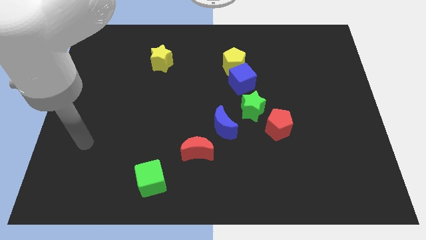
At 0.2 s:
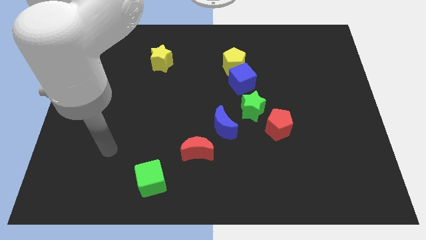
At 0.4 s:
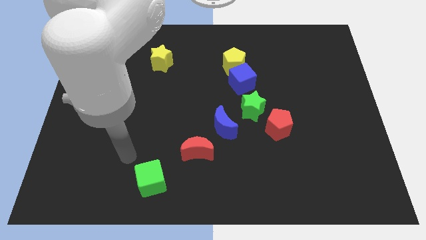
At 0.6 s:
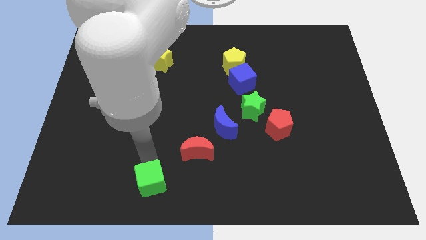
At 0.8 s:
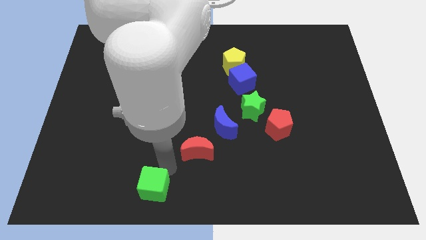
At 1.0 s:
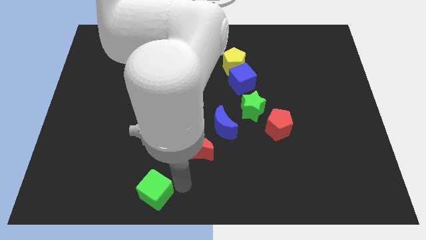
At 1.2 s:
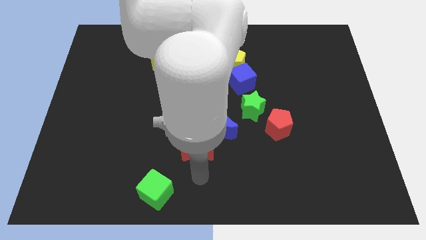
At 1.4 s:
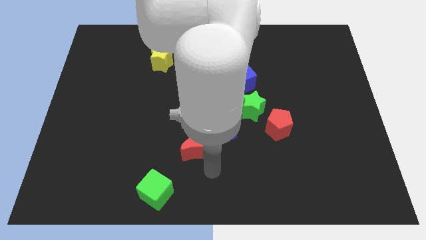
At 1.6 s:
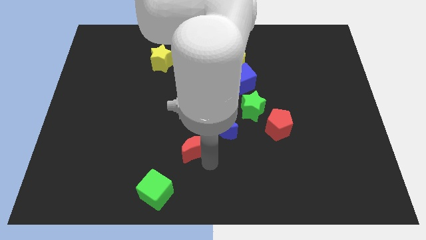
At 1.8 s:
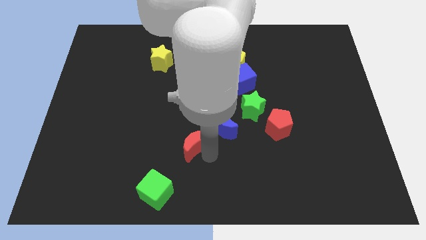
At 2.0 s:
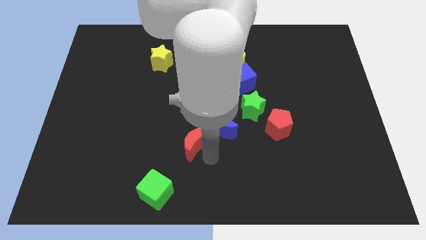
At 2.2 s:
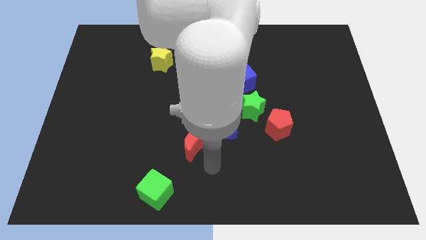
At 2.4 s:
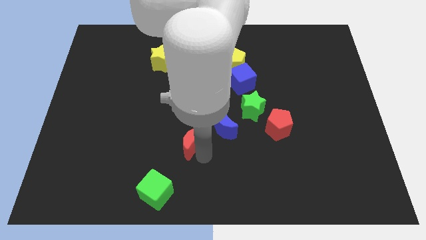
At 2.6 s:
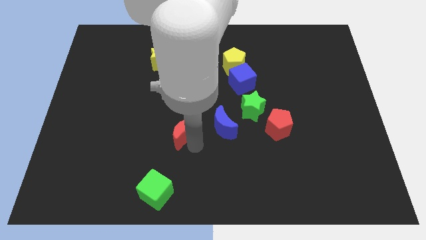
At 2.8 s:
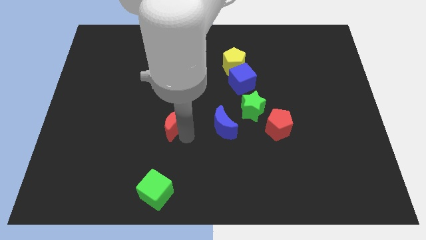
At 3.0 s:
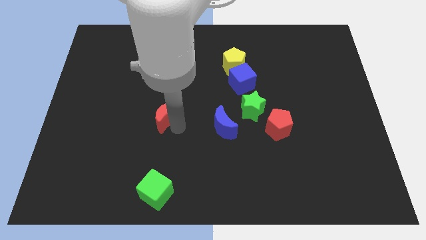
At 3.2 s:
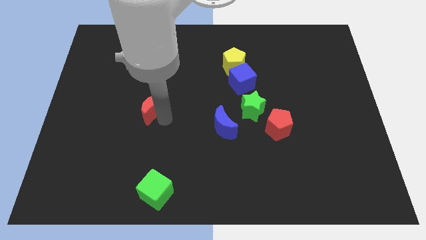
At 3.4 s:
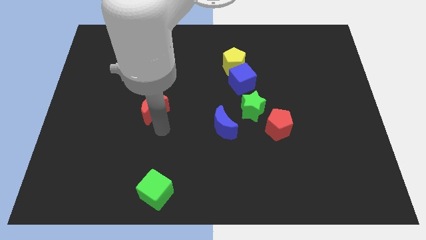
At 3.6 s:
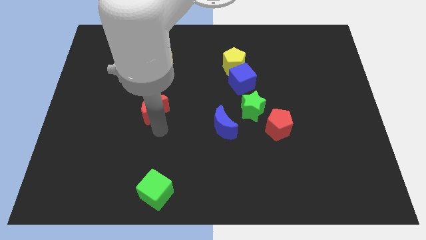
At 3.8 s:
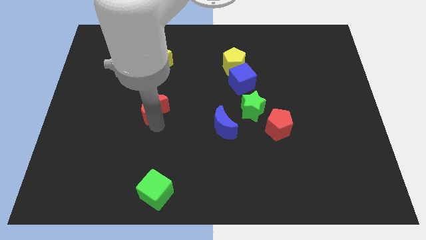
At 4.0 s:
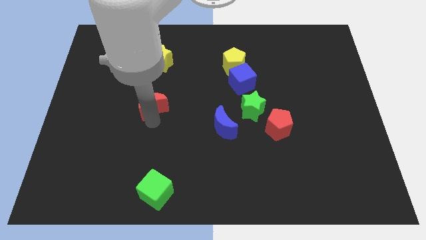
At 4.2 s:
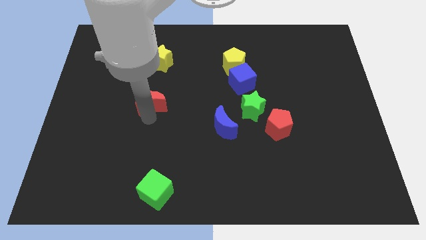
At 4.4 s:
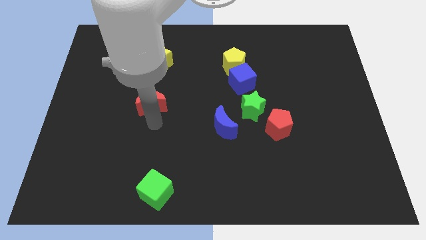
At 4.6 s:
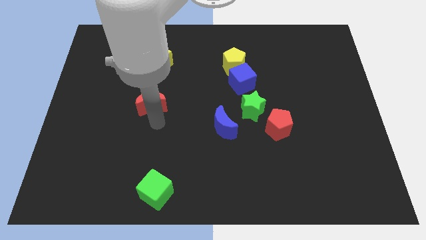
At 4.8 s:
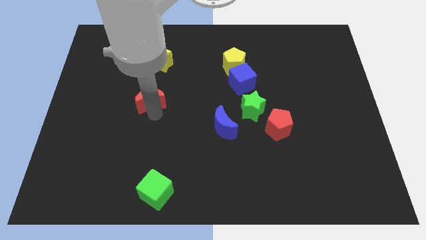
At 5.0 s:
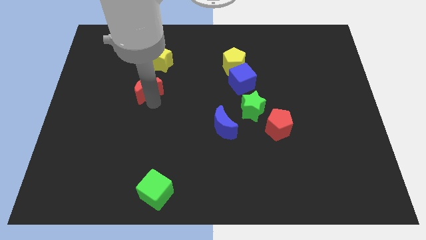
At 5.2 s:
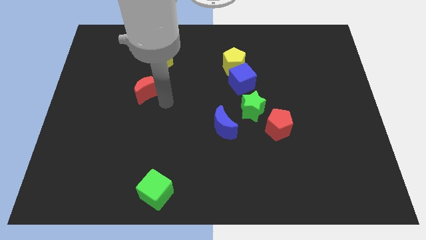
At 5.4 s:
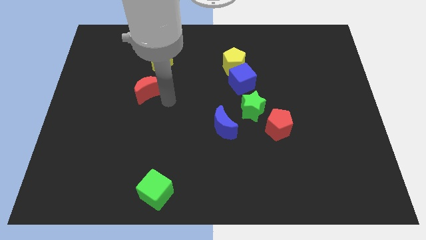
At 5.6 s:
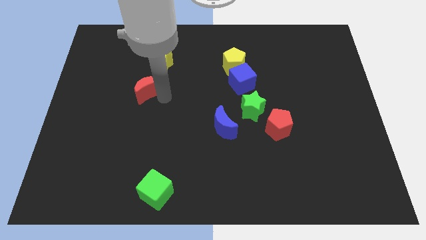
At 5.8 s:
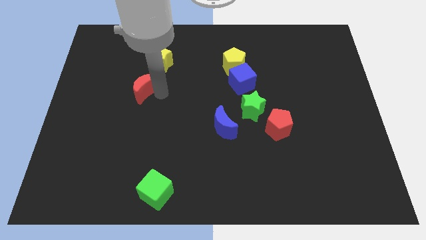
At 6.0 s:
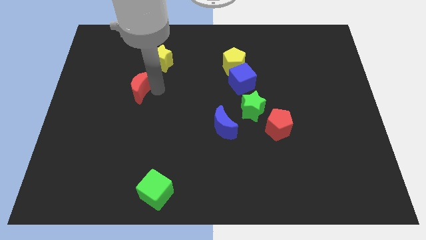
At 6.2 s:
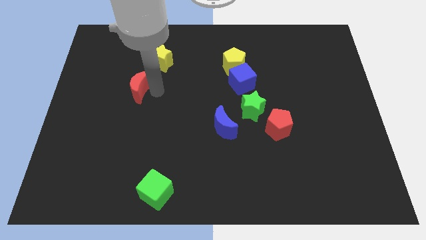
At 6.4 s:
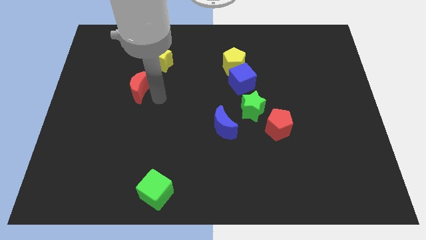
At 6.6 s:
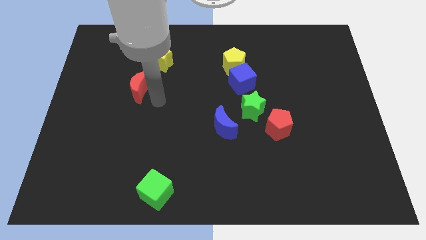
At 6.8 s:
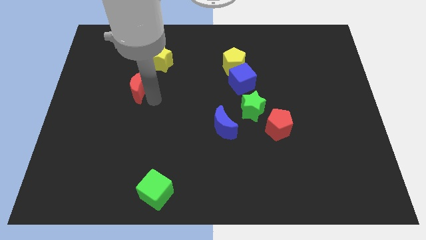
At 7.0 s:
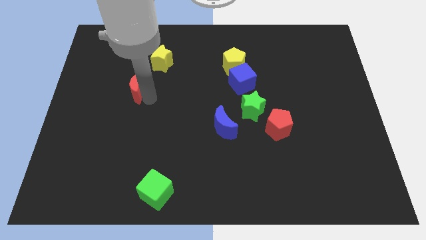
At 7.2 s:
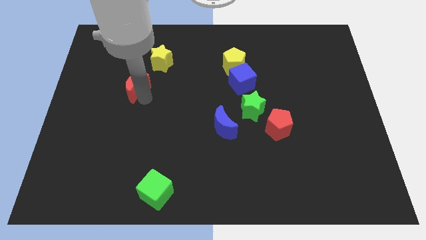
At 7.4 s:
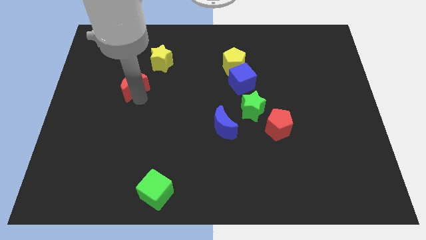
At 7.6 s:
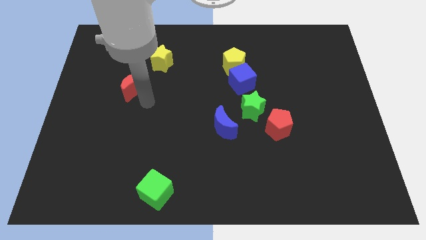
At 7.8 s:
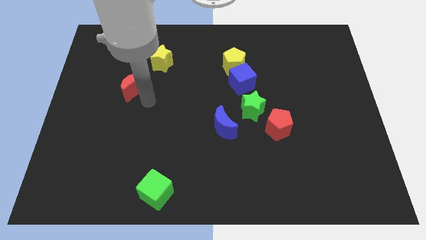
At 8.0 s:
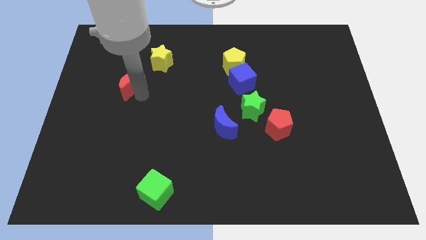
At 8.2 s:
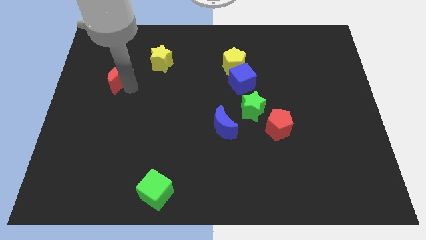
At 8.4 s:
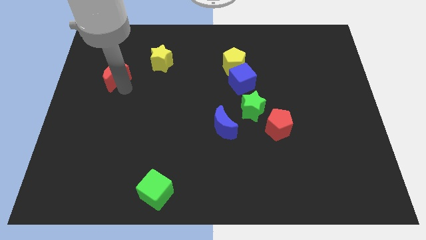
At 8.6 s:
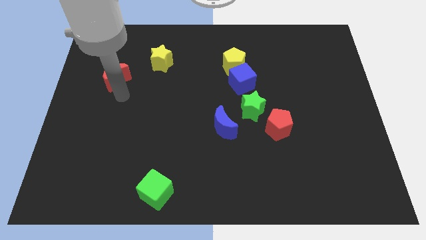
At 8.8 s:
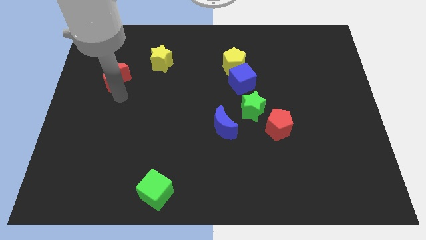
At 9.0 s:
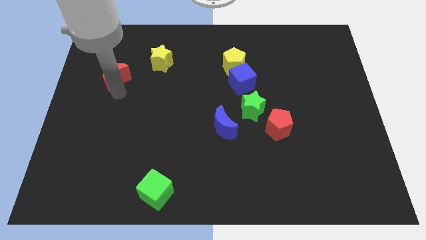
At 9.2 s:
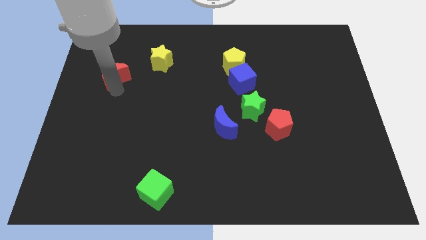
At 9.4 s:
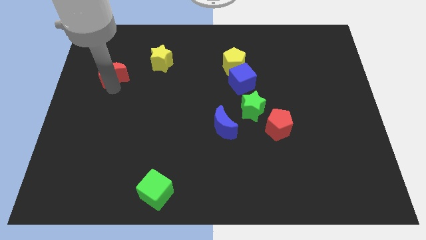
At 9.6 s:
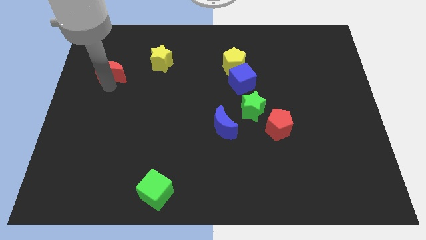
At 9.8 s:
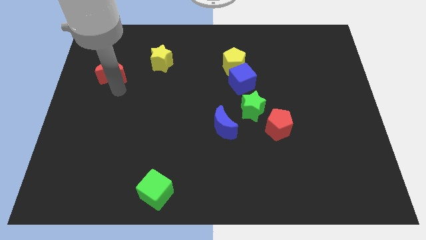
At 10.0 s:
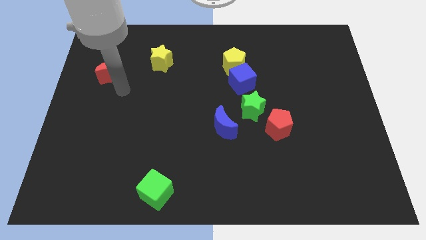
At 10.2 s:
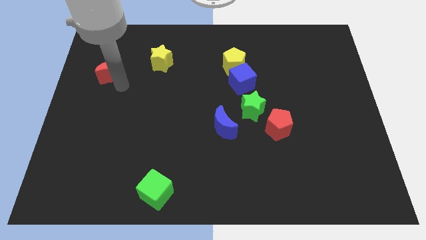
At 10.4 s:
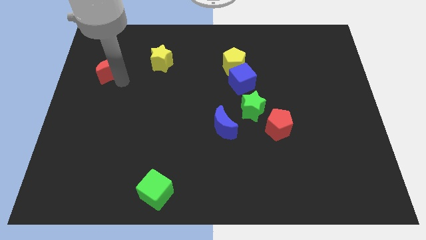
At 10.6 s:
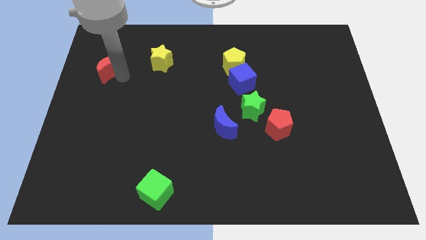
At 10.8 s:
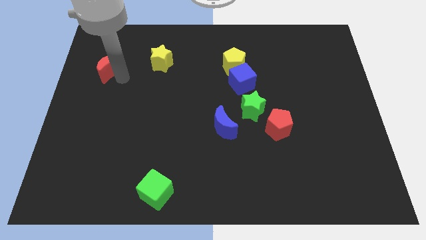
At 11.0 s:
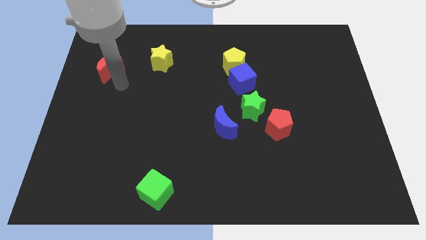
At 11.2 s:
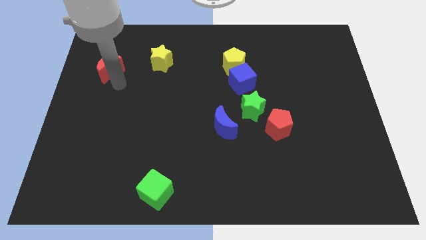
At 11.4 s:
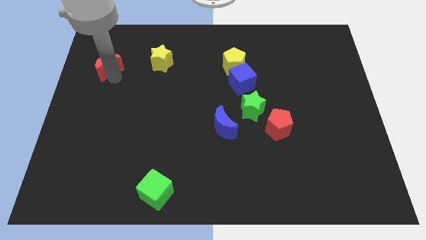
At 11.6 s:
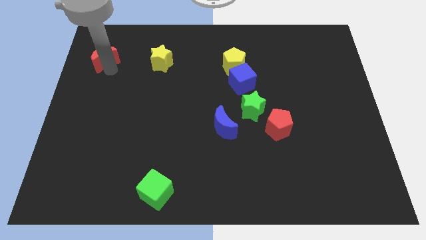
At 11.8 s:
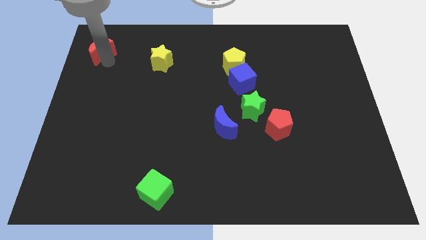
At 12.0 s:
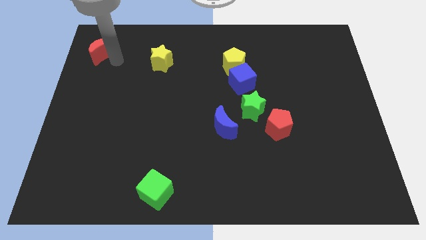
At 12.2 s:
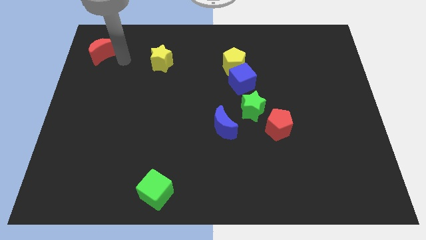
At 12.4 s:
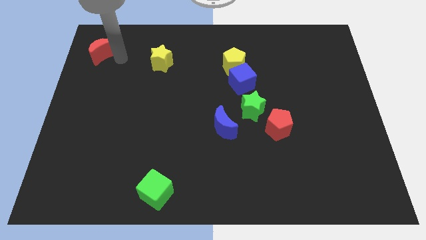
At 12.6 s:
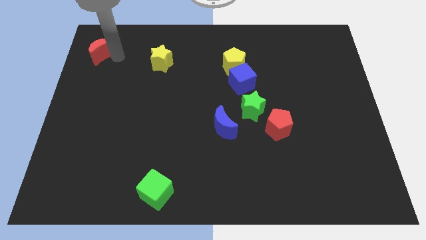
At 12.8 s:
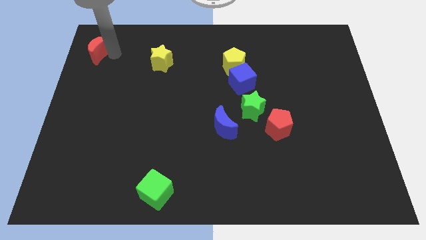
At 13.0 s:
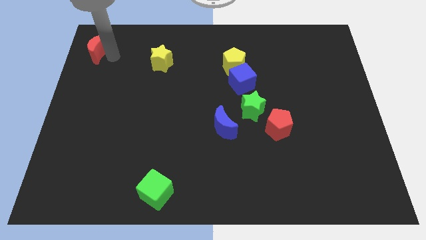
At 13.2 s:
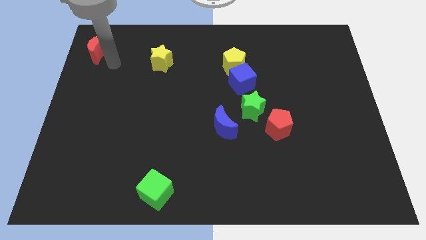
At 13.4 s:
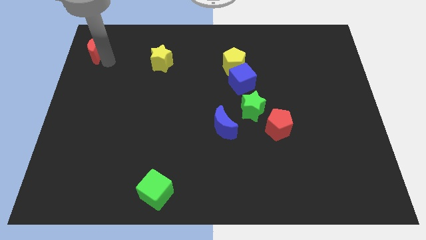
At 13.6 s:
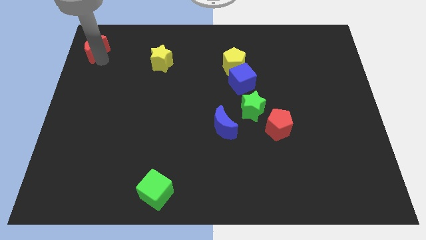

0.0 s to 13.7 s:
push the red moon to the top left
